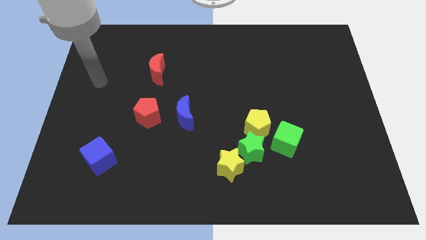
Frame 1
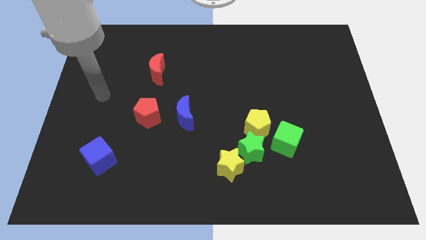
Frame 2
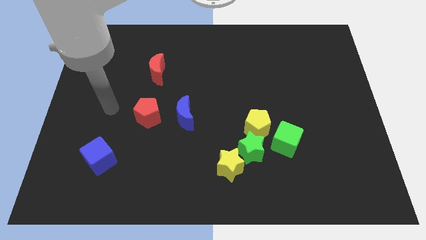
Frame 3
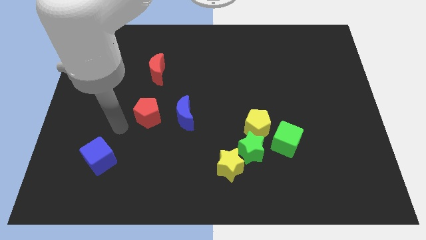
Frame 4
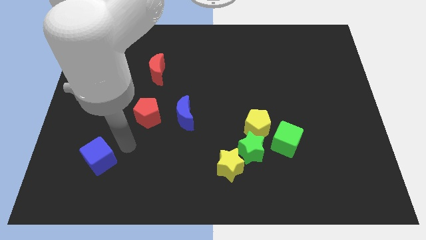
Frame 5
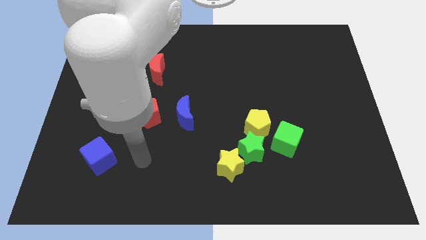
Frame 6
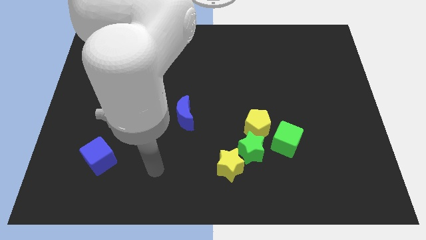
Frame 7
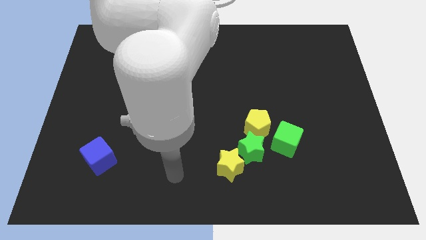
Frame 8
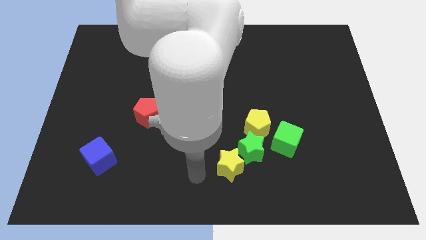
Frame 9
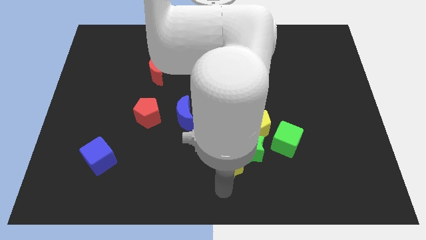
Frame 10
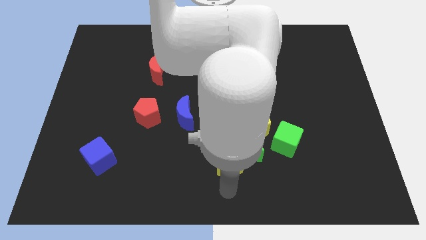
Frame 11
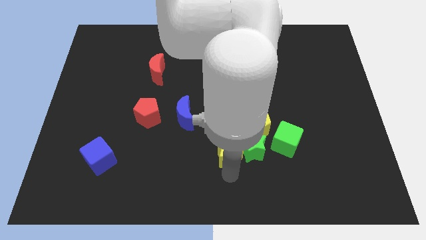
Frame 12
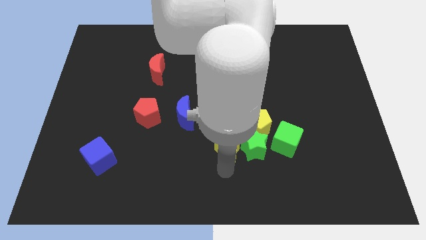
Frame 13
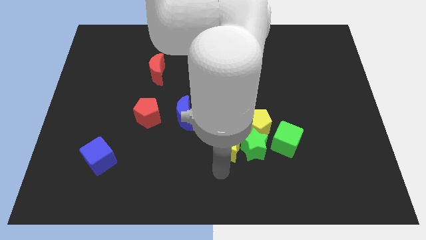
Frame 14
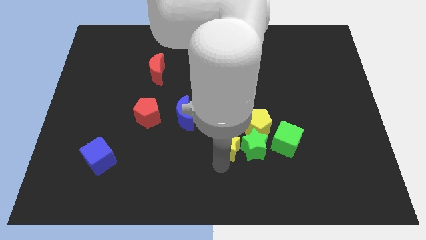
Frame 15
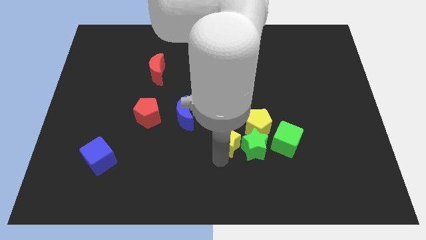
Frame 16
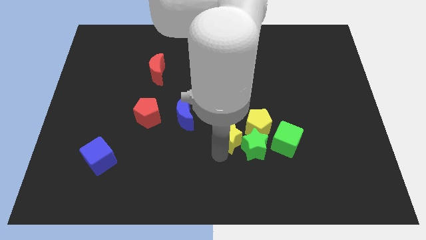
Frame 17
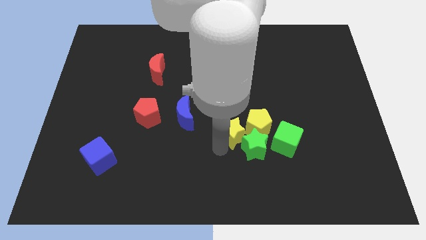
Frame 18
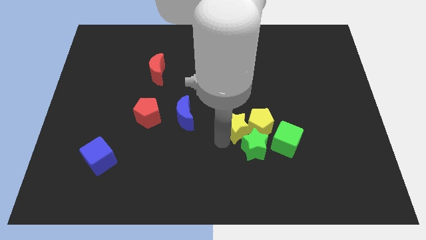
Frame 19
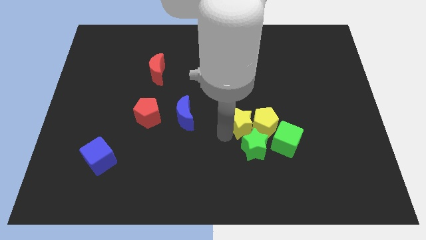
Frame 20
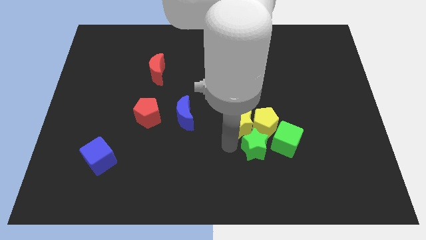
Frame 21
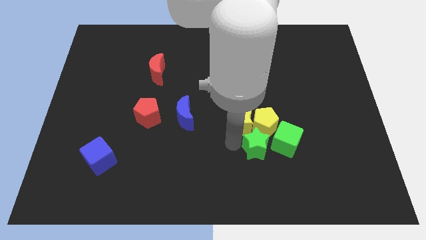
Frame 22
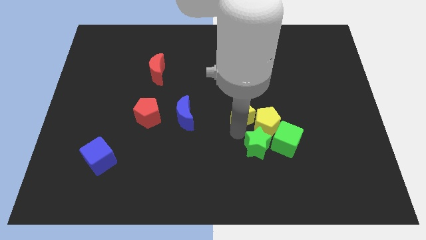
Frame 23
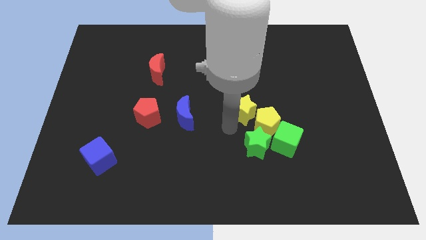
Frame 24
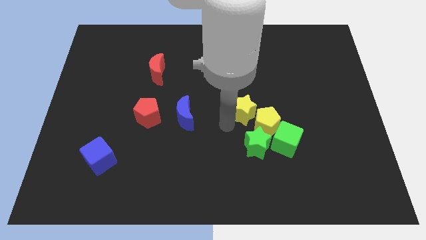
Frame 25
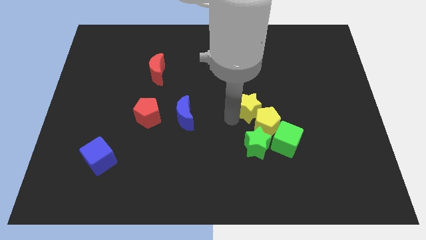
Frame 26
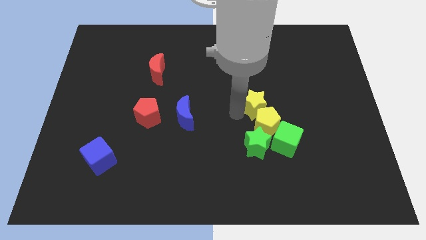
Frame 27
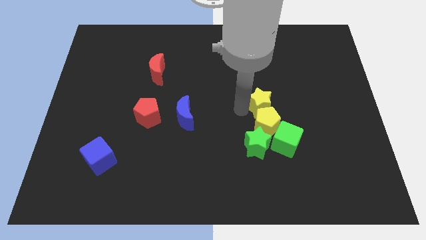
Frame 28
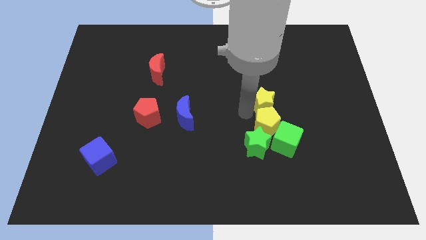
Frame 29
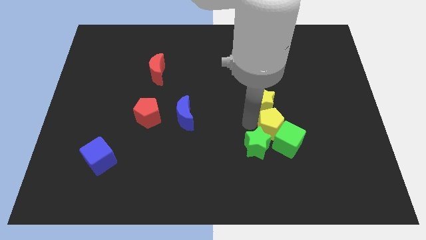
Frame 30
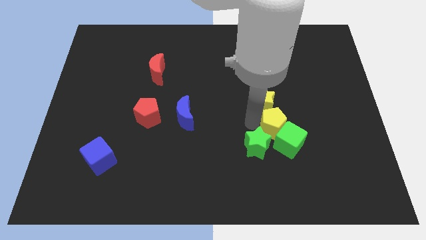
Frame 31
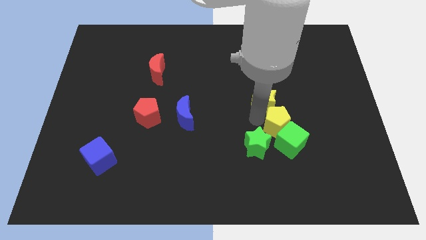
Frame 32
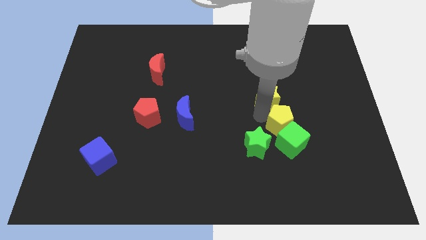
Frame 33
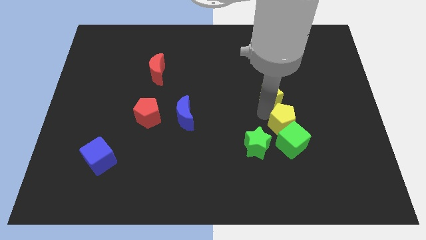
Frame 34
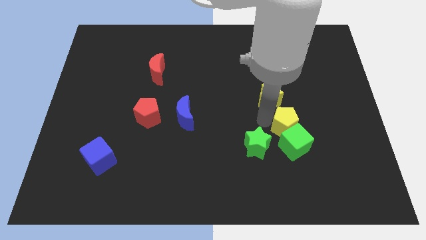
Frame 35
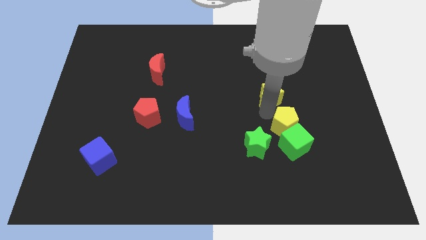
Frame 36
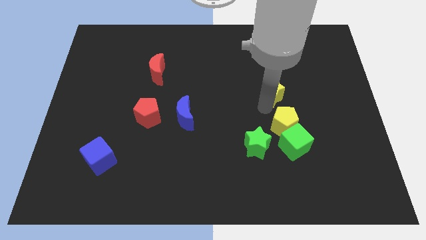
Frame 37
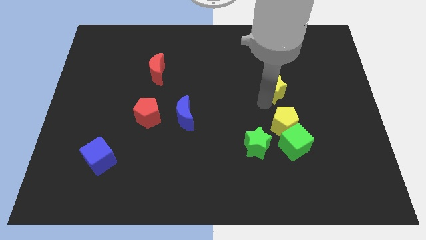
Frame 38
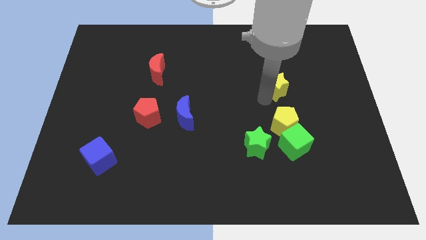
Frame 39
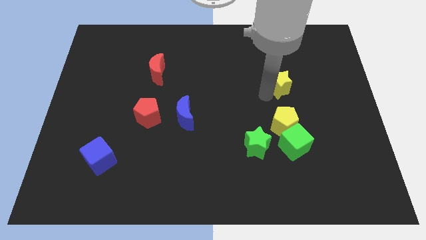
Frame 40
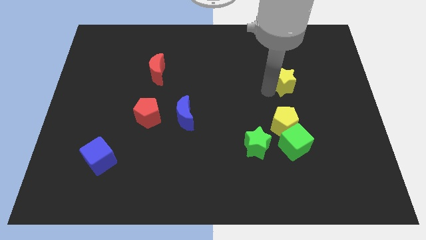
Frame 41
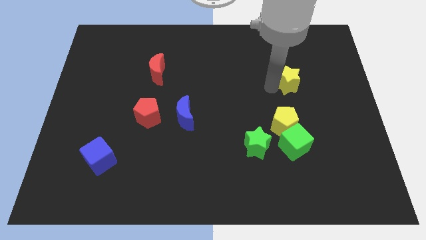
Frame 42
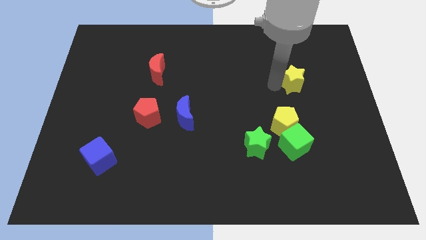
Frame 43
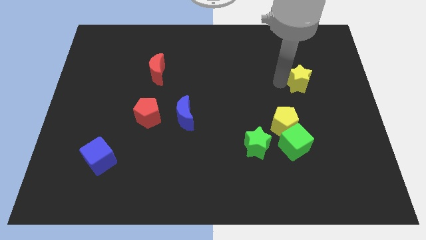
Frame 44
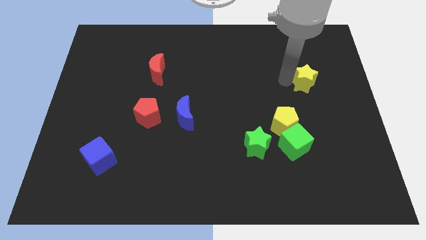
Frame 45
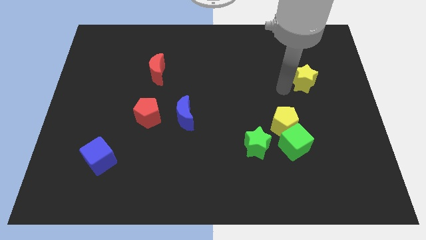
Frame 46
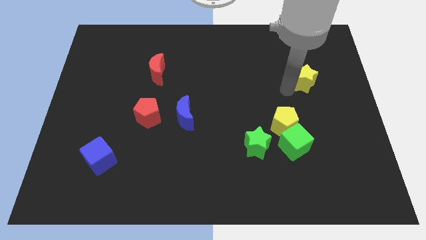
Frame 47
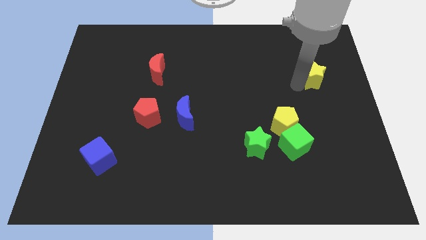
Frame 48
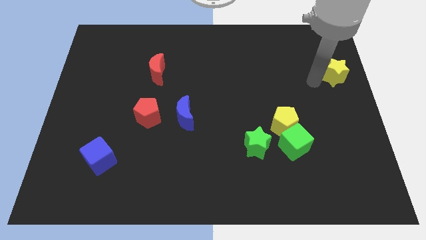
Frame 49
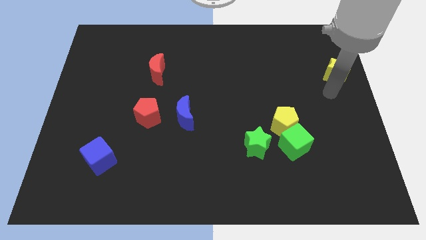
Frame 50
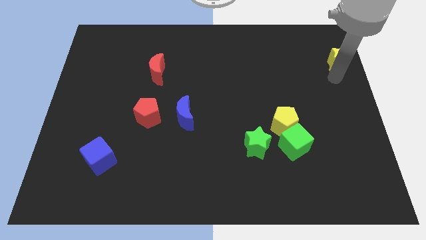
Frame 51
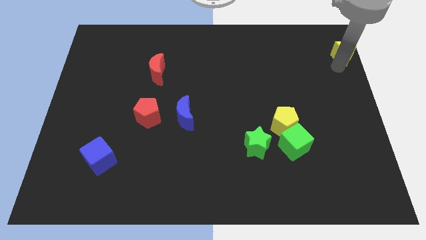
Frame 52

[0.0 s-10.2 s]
push the yellow star to the top right corner

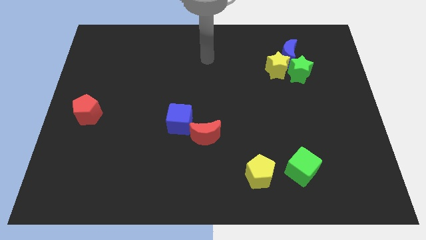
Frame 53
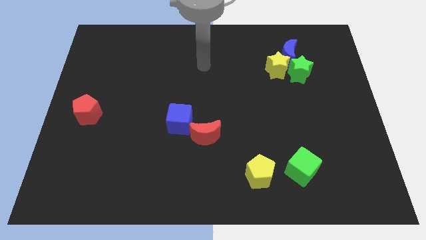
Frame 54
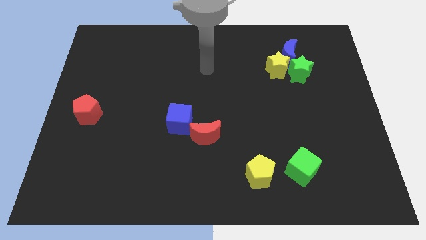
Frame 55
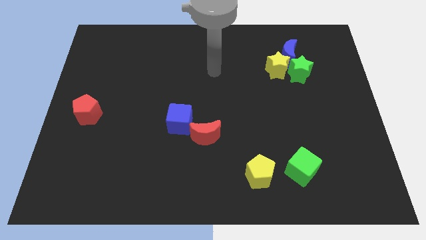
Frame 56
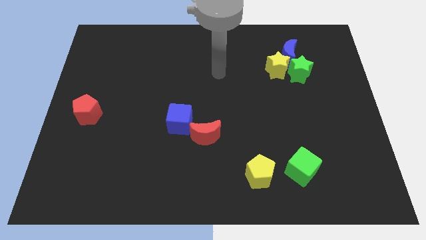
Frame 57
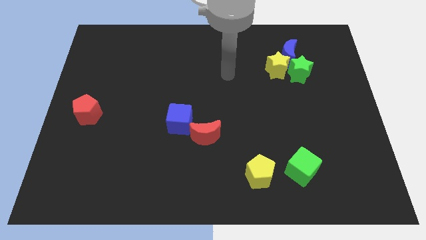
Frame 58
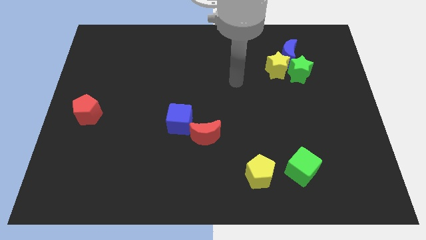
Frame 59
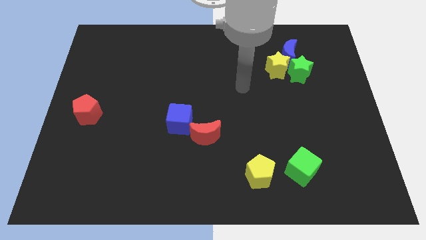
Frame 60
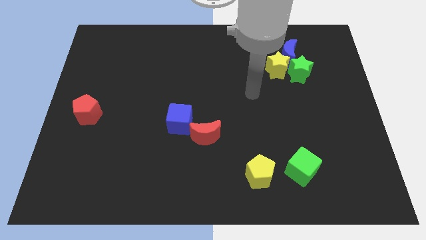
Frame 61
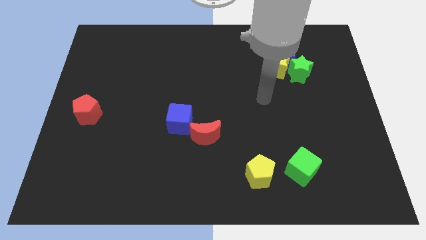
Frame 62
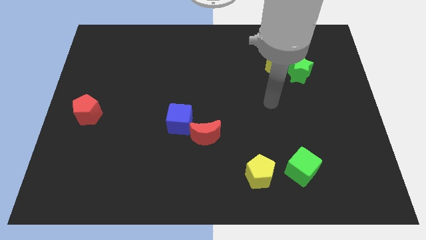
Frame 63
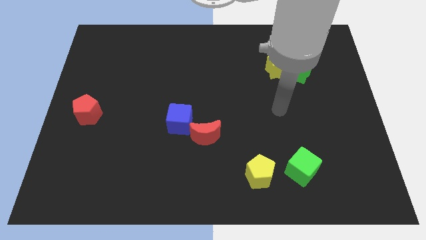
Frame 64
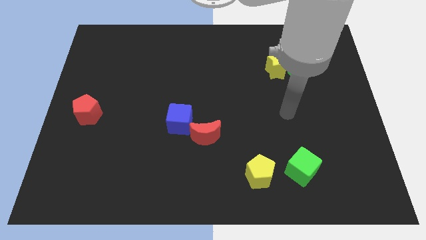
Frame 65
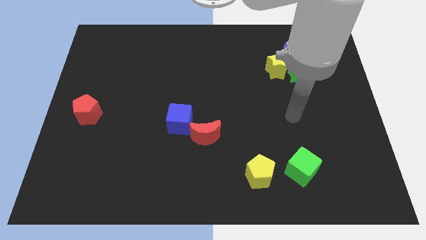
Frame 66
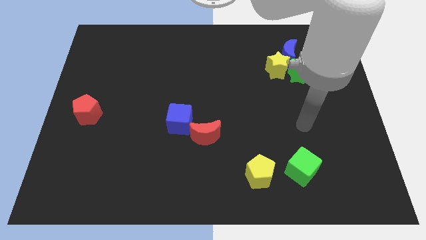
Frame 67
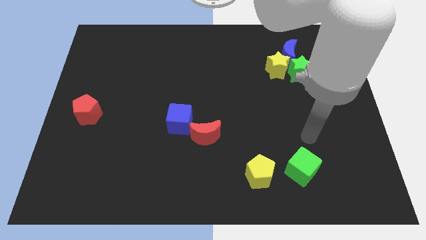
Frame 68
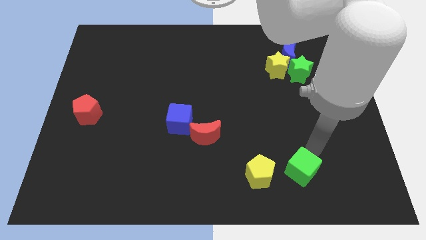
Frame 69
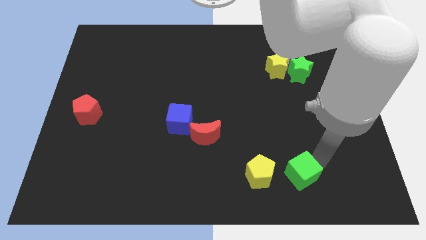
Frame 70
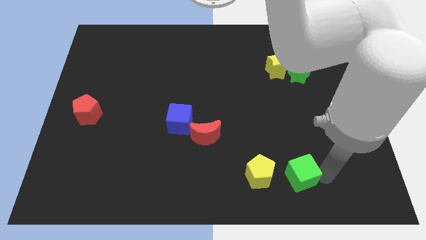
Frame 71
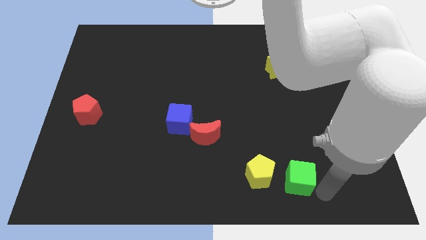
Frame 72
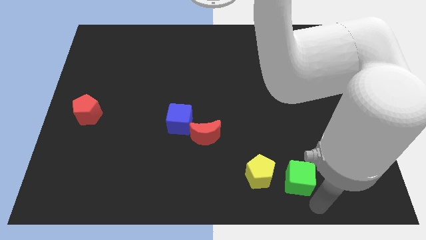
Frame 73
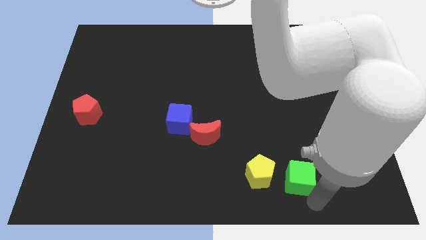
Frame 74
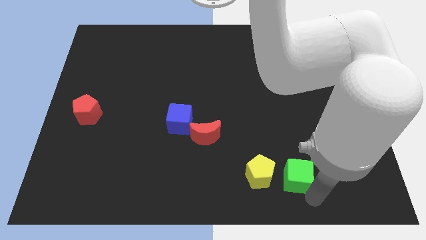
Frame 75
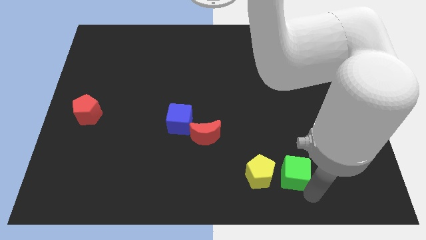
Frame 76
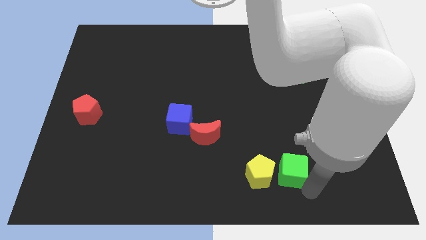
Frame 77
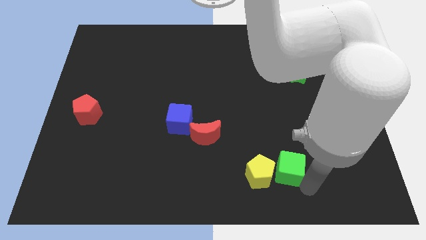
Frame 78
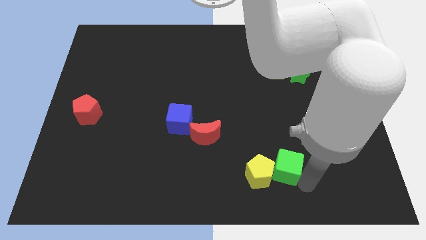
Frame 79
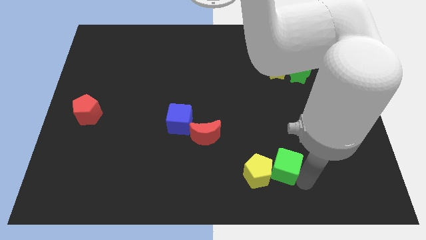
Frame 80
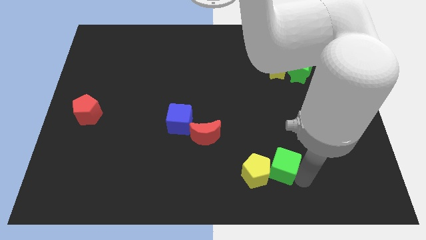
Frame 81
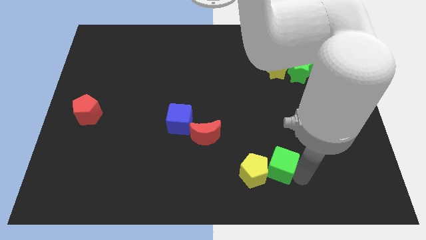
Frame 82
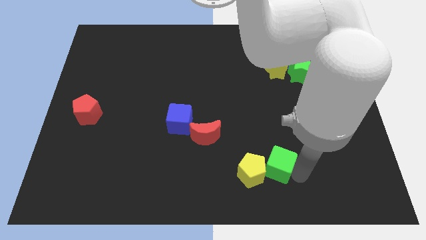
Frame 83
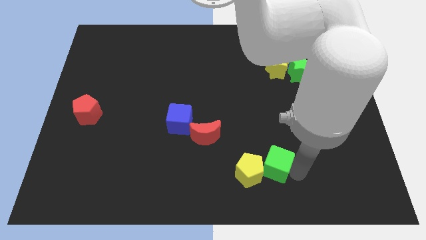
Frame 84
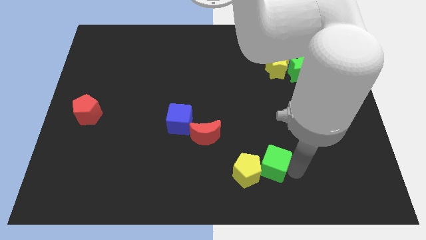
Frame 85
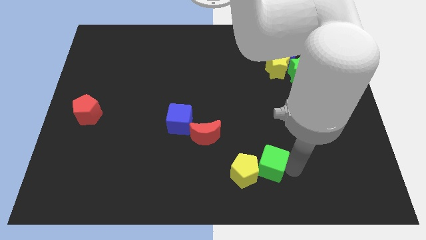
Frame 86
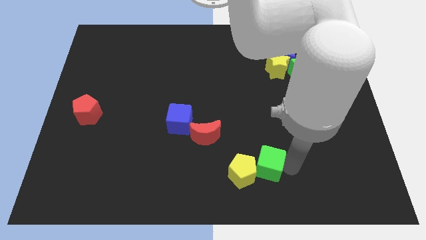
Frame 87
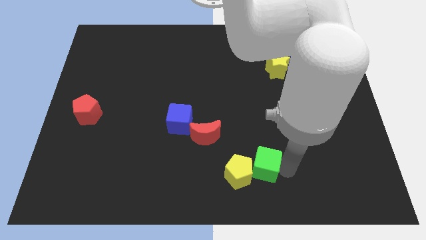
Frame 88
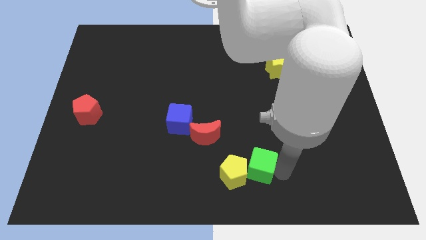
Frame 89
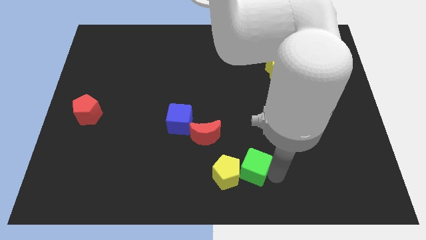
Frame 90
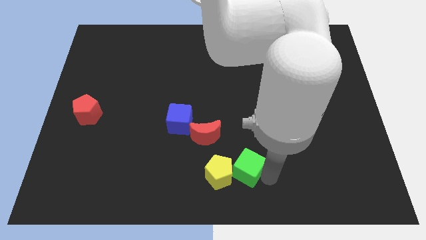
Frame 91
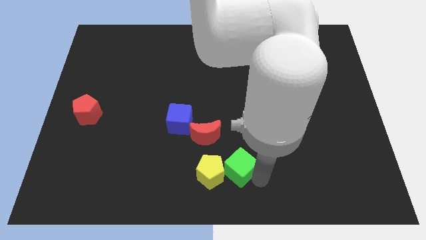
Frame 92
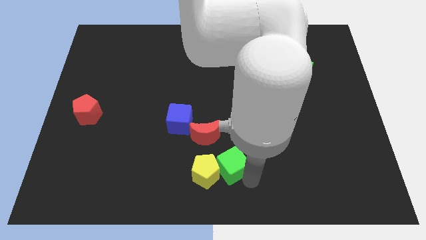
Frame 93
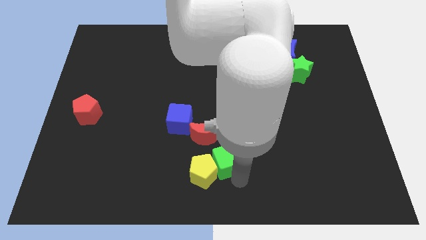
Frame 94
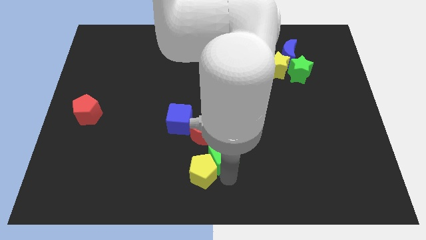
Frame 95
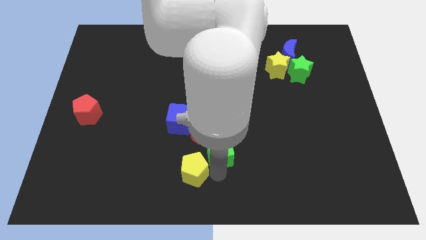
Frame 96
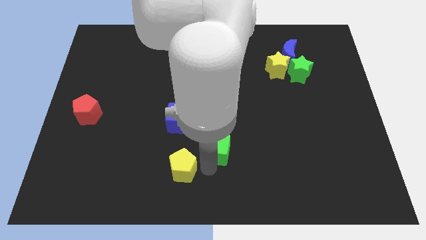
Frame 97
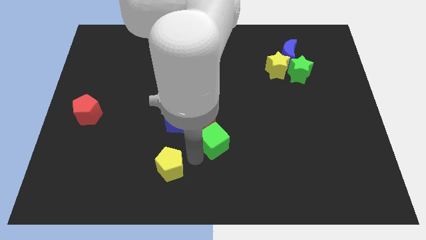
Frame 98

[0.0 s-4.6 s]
slide the green cube to the middle of the board
